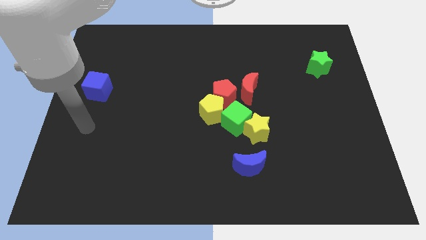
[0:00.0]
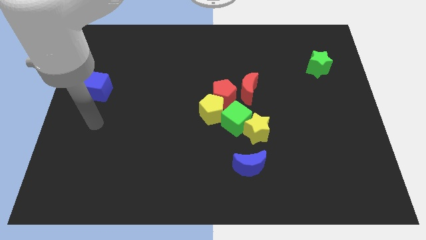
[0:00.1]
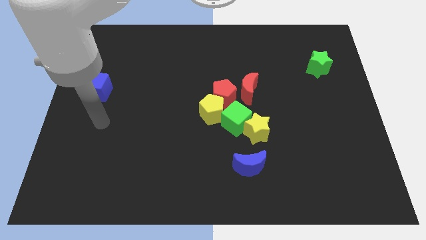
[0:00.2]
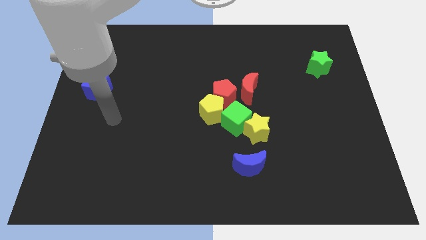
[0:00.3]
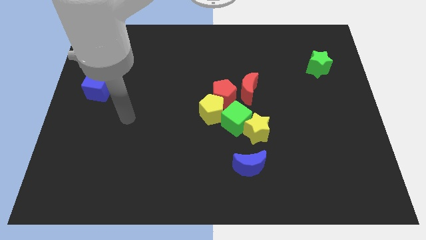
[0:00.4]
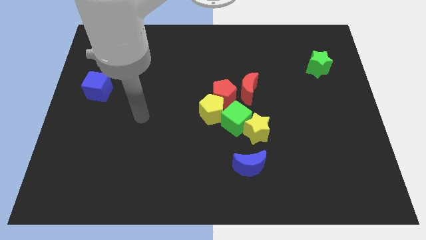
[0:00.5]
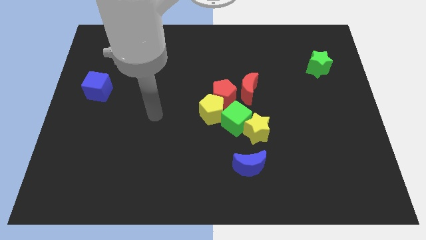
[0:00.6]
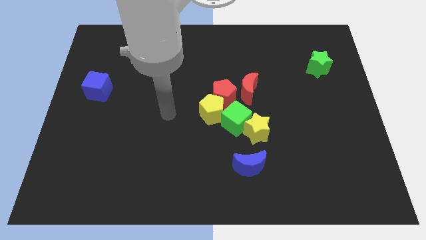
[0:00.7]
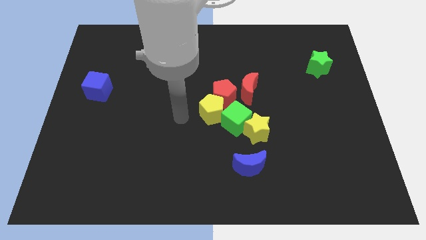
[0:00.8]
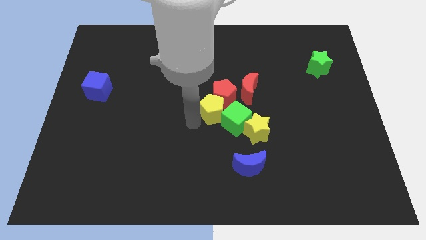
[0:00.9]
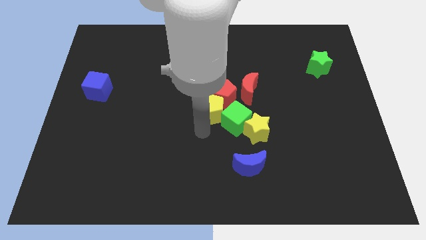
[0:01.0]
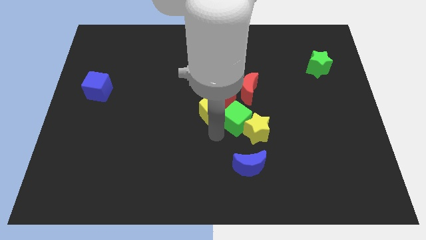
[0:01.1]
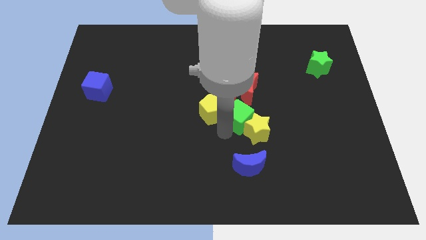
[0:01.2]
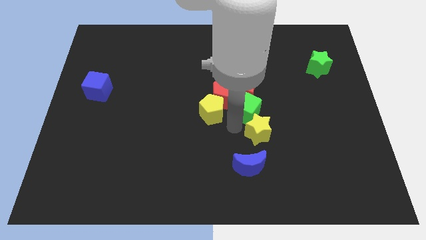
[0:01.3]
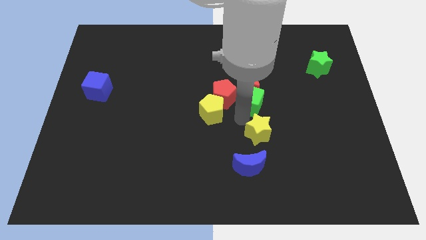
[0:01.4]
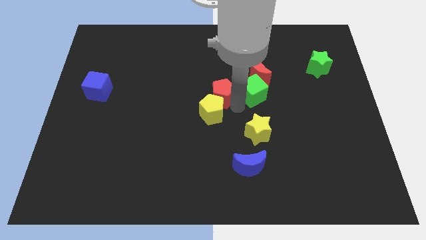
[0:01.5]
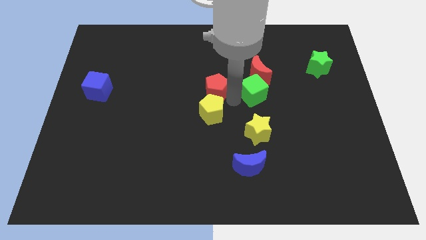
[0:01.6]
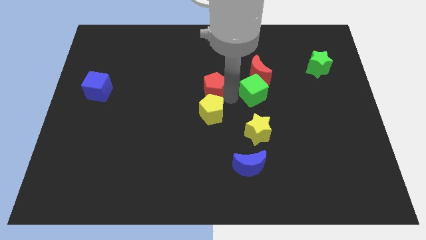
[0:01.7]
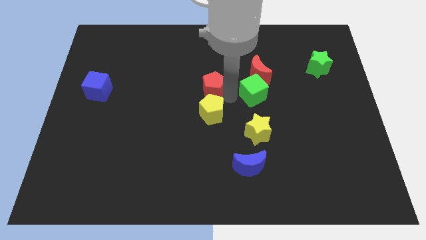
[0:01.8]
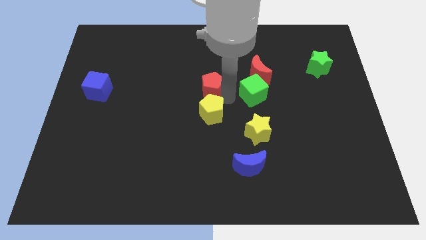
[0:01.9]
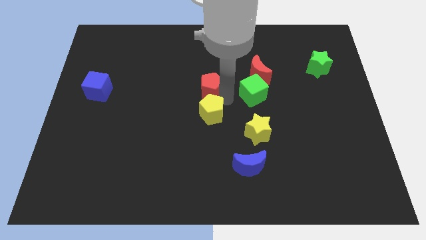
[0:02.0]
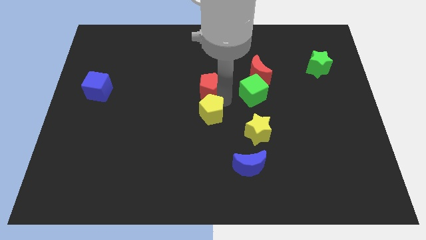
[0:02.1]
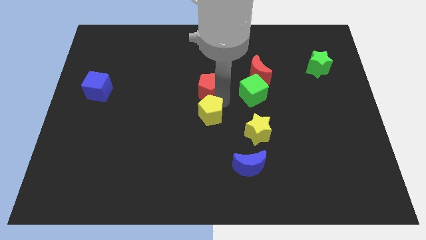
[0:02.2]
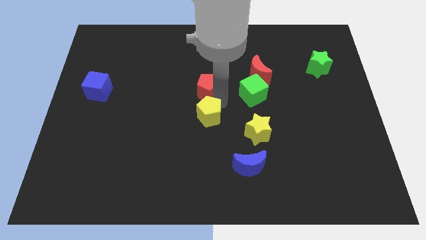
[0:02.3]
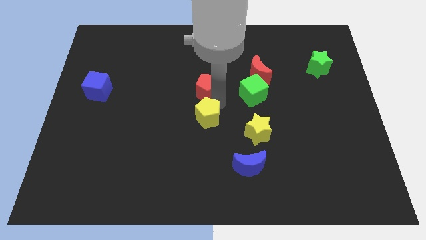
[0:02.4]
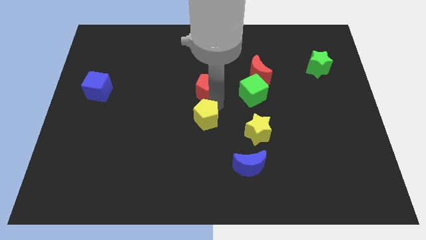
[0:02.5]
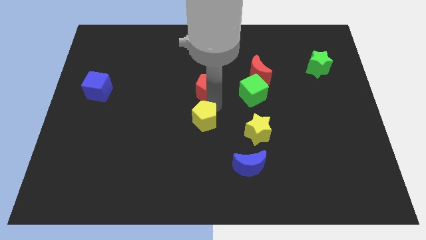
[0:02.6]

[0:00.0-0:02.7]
move the yellow pentagon away from the red pentagon and green cube

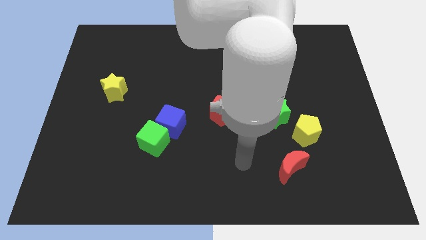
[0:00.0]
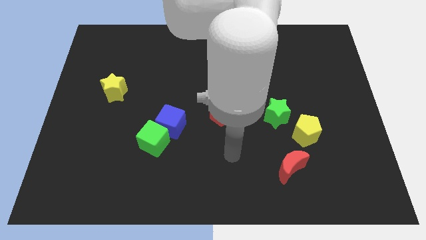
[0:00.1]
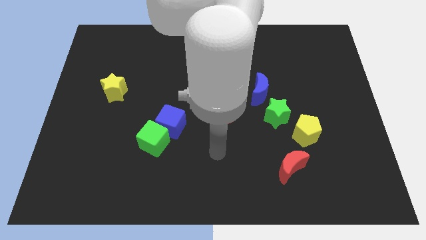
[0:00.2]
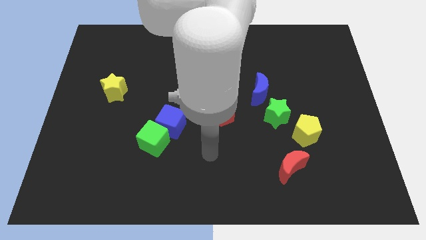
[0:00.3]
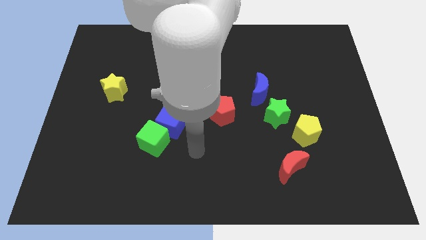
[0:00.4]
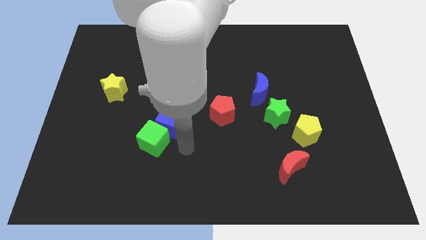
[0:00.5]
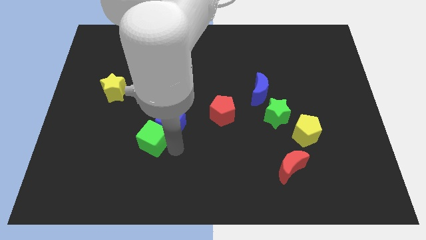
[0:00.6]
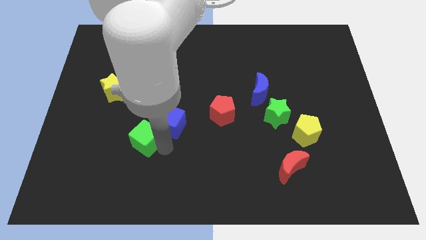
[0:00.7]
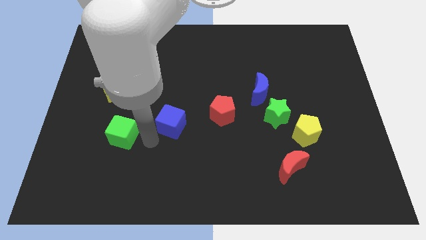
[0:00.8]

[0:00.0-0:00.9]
pull the blue cube apart from the green cube

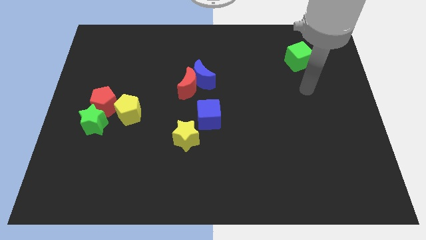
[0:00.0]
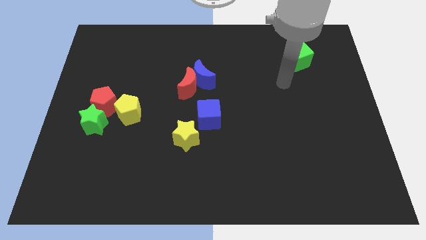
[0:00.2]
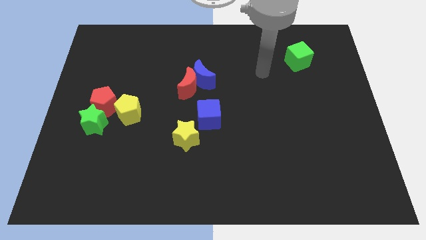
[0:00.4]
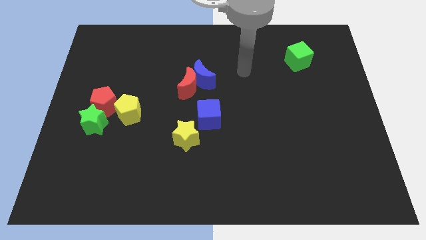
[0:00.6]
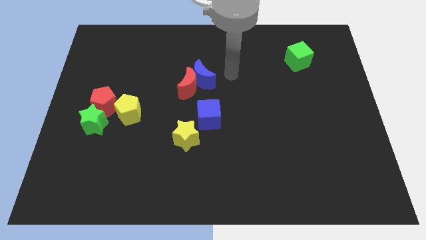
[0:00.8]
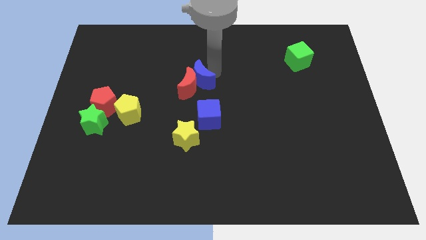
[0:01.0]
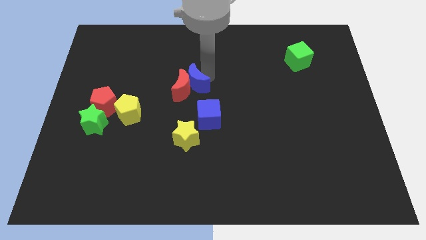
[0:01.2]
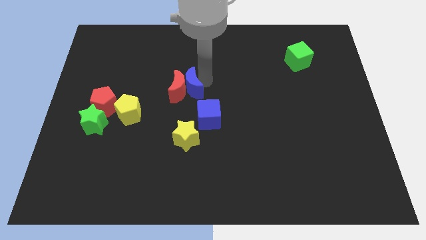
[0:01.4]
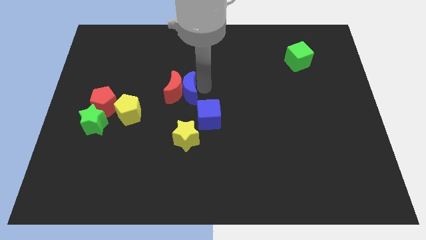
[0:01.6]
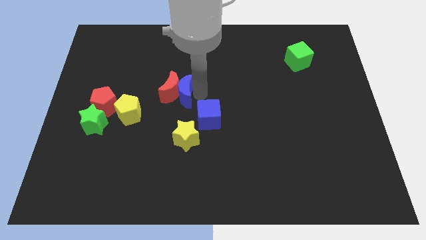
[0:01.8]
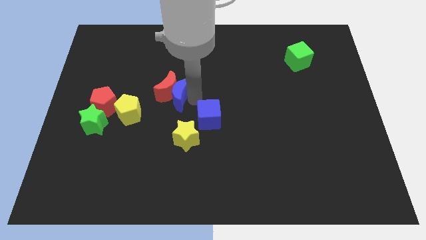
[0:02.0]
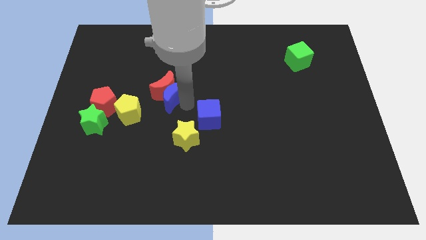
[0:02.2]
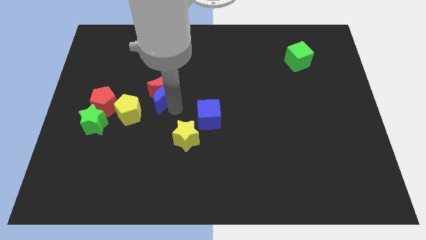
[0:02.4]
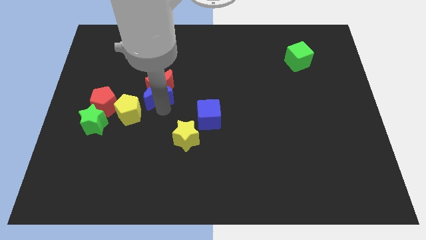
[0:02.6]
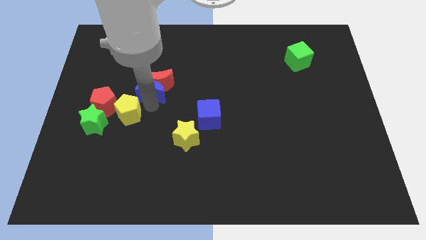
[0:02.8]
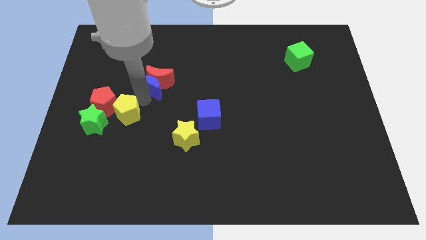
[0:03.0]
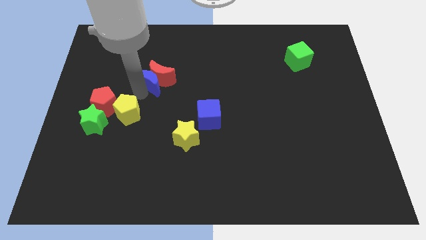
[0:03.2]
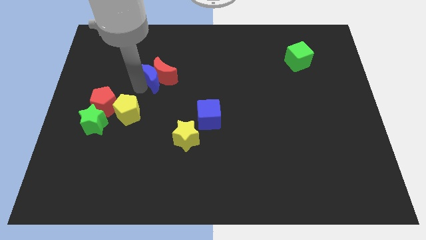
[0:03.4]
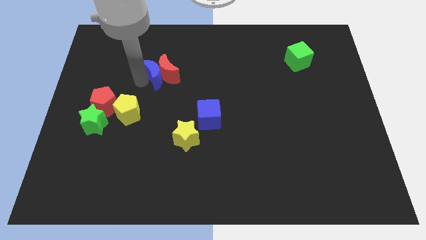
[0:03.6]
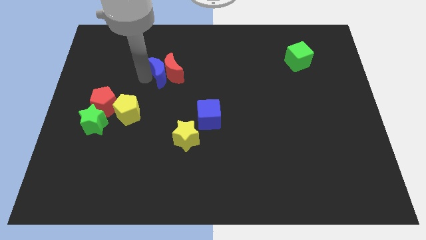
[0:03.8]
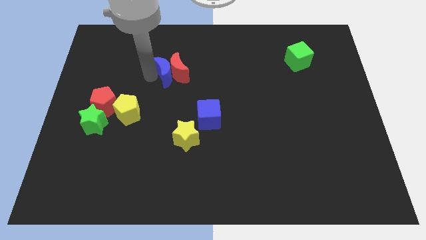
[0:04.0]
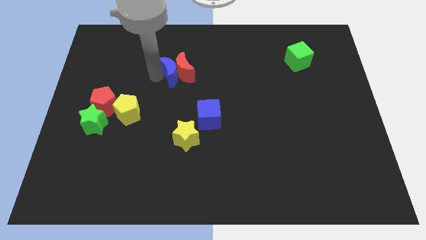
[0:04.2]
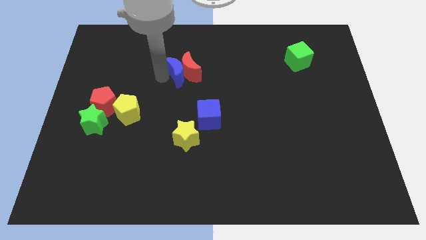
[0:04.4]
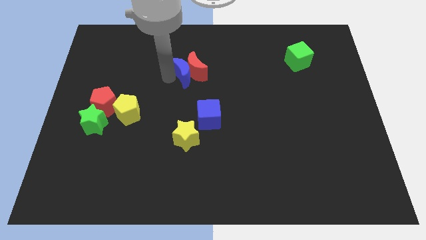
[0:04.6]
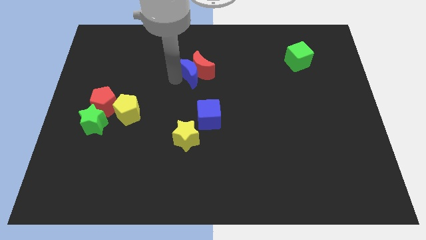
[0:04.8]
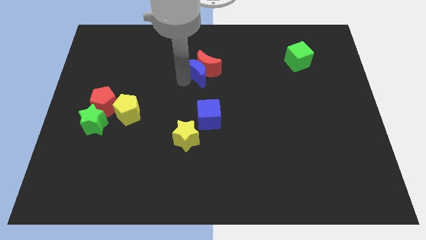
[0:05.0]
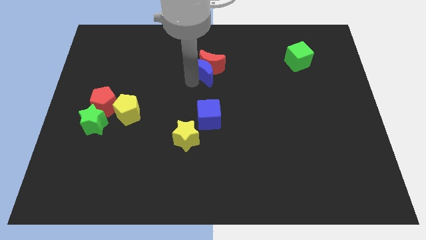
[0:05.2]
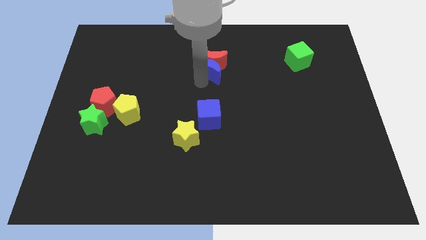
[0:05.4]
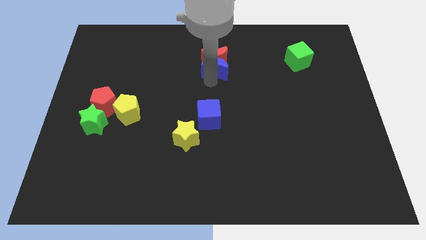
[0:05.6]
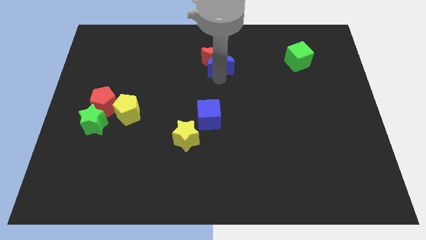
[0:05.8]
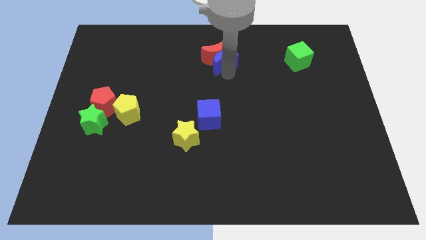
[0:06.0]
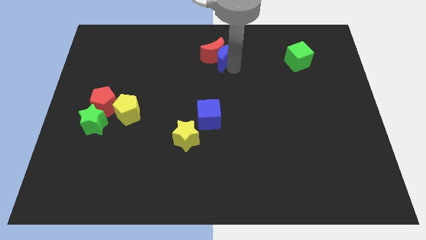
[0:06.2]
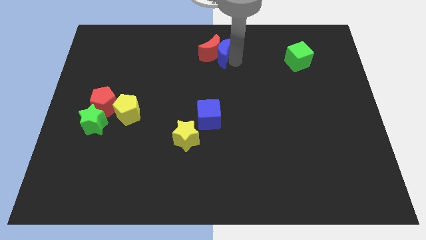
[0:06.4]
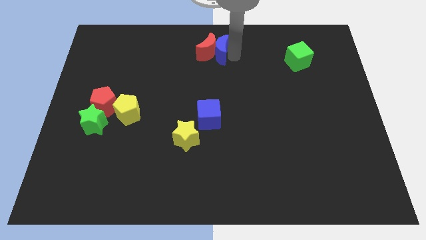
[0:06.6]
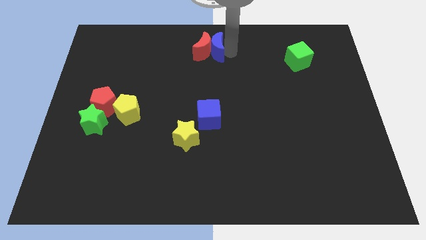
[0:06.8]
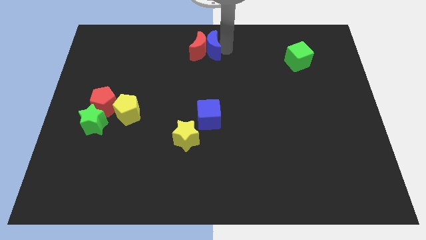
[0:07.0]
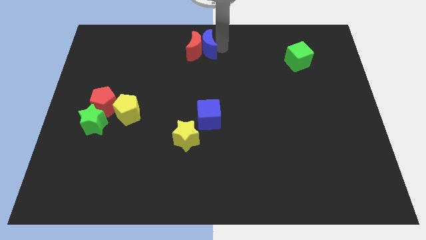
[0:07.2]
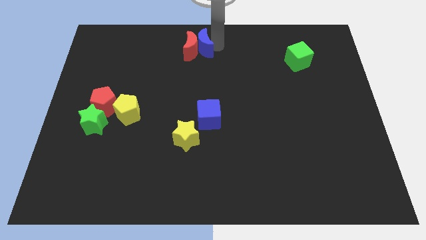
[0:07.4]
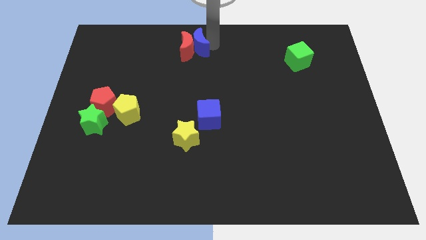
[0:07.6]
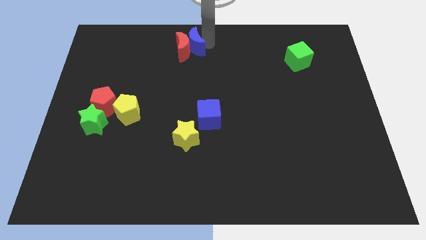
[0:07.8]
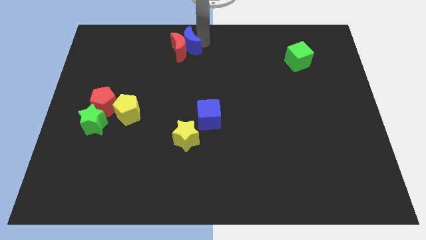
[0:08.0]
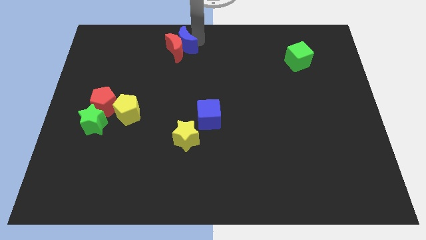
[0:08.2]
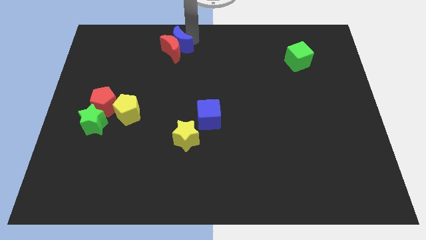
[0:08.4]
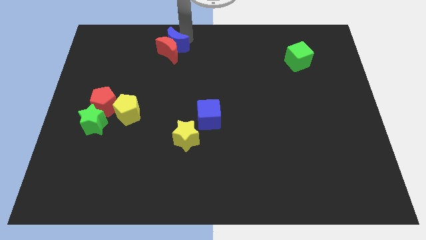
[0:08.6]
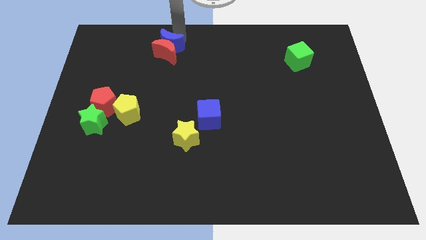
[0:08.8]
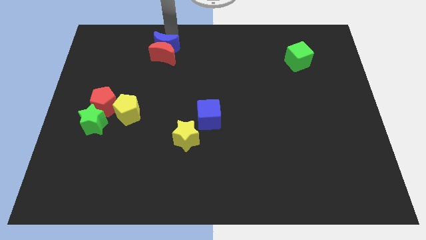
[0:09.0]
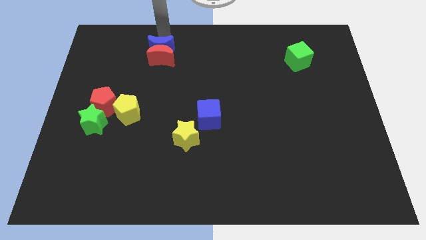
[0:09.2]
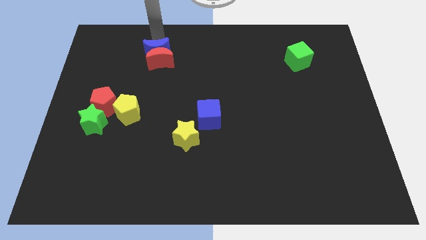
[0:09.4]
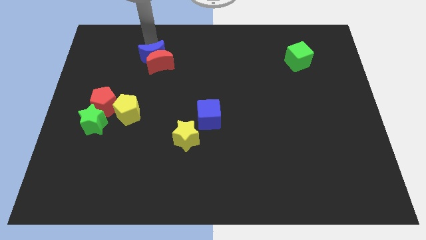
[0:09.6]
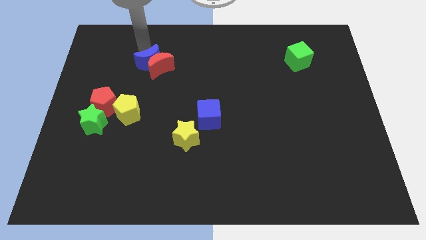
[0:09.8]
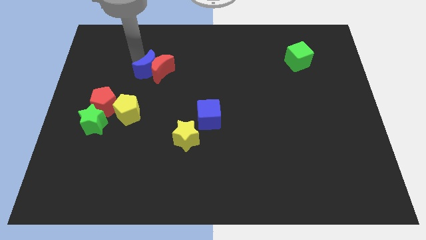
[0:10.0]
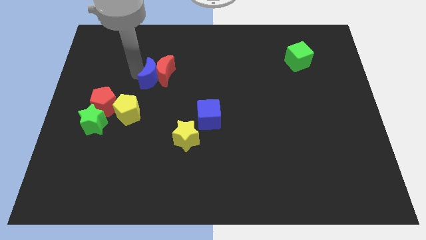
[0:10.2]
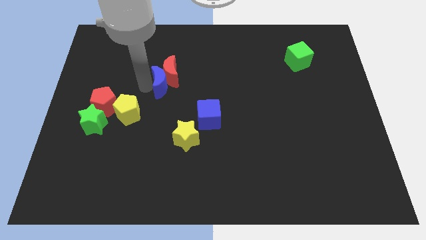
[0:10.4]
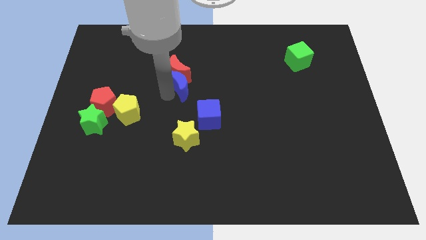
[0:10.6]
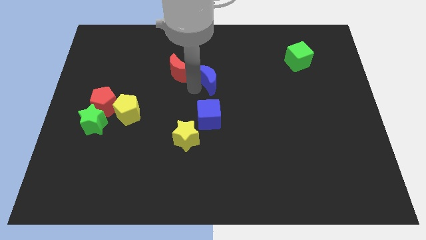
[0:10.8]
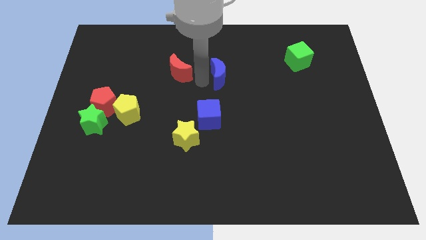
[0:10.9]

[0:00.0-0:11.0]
pull the red moon apart from the blue moon

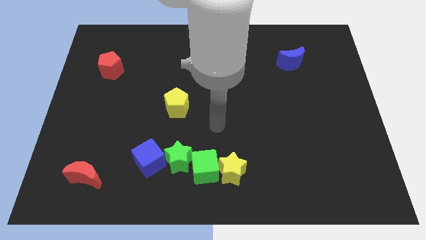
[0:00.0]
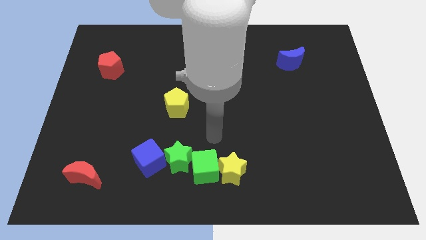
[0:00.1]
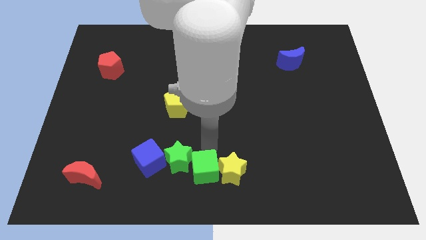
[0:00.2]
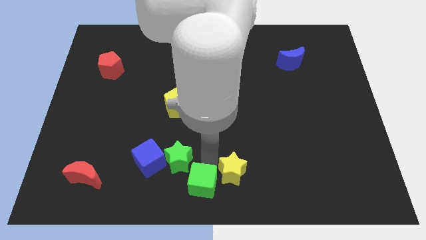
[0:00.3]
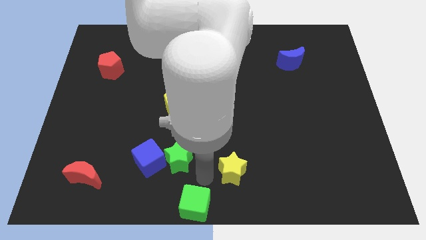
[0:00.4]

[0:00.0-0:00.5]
pull the yellow star apart from the green cube
